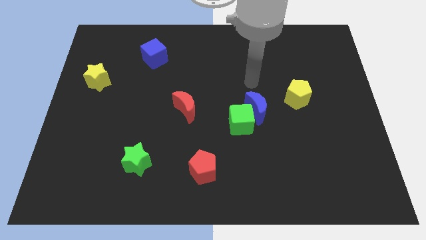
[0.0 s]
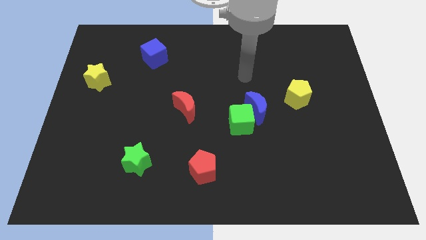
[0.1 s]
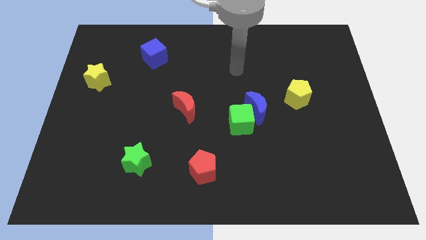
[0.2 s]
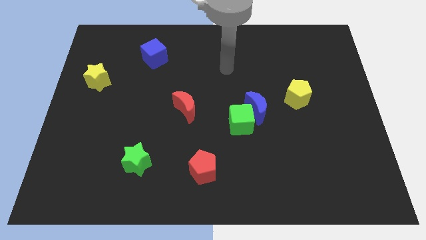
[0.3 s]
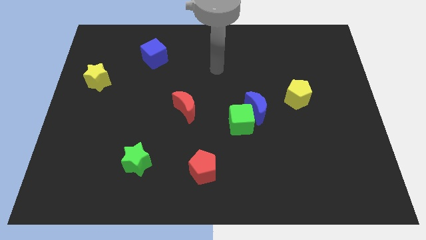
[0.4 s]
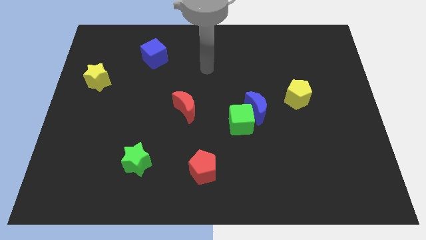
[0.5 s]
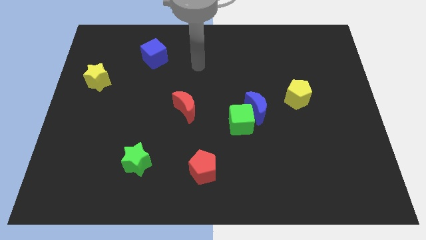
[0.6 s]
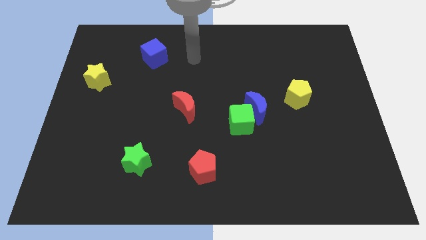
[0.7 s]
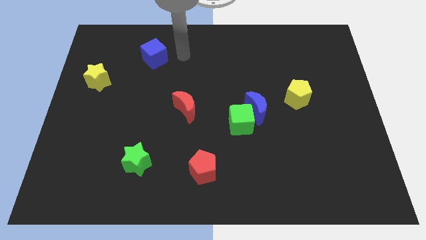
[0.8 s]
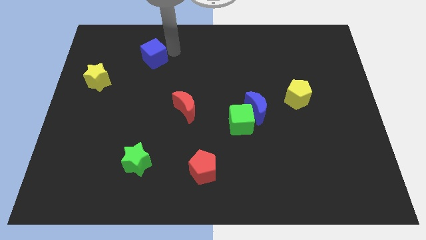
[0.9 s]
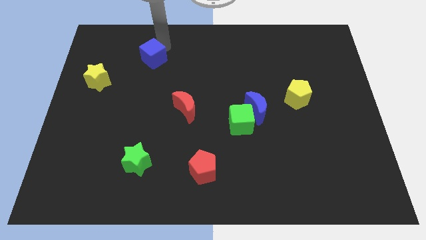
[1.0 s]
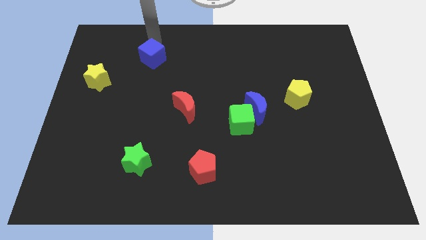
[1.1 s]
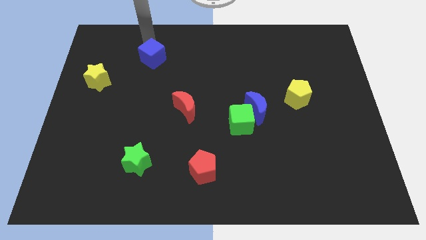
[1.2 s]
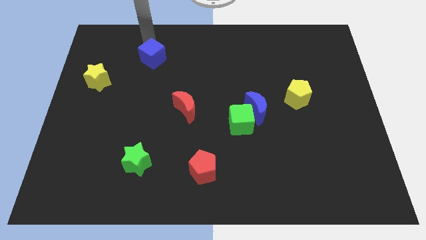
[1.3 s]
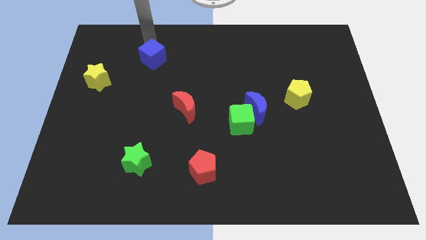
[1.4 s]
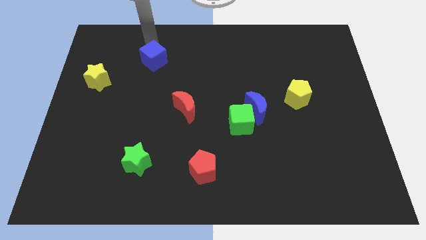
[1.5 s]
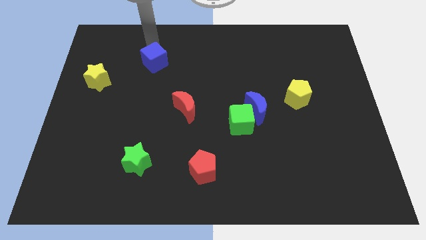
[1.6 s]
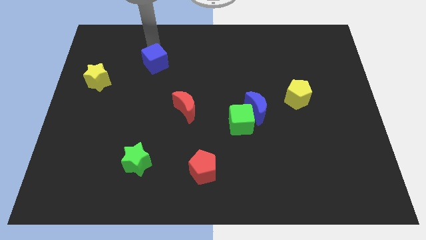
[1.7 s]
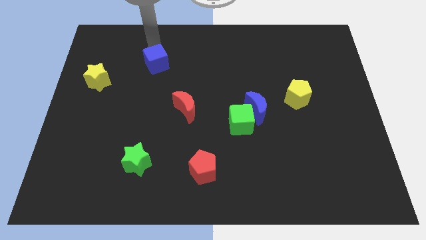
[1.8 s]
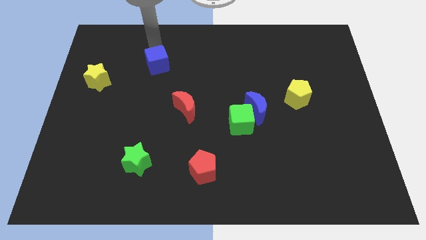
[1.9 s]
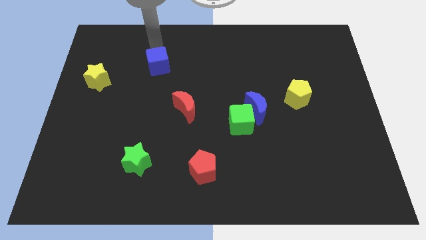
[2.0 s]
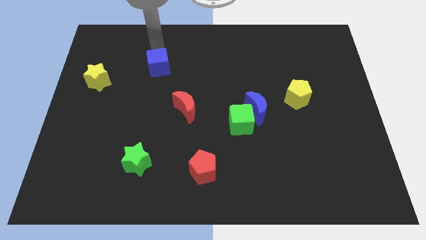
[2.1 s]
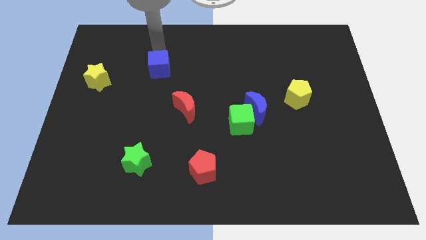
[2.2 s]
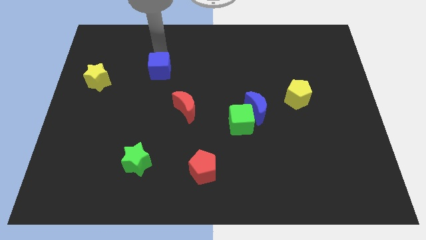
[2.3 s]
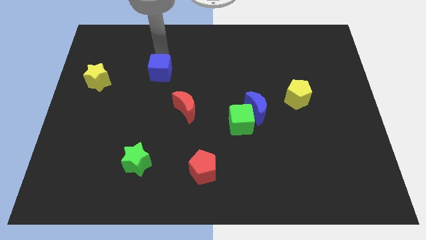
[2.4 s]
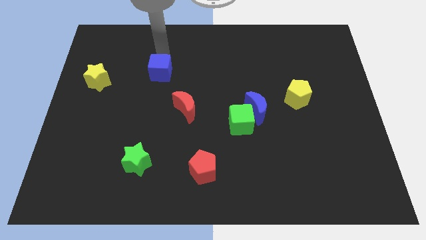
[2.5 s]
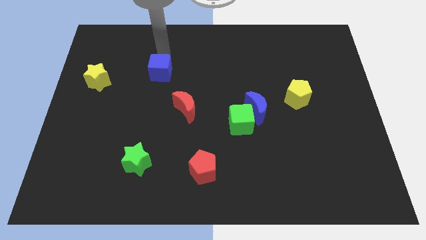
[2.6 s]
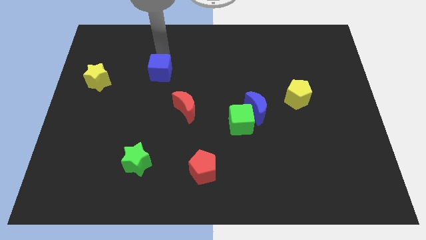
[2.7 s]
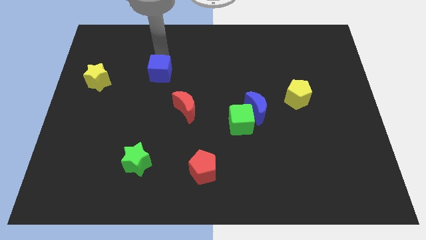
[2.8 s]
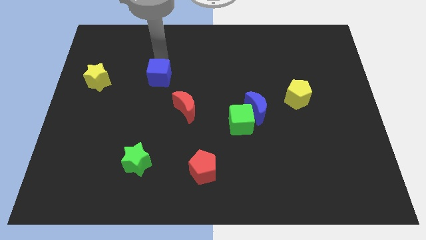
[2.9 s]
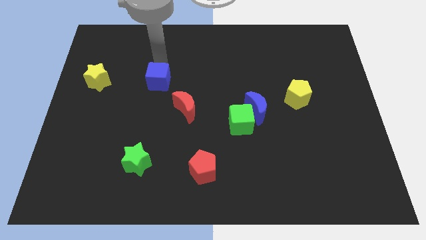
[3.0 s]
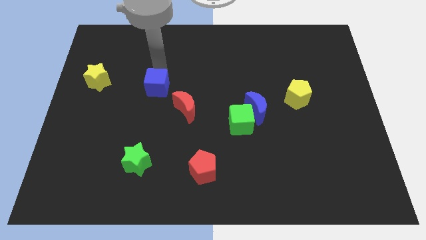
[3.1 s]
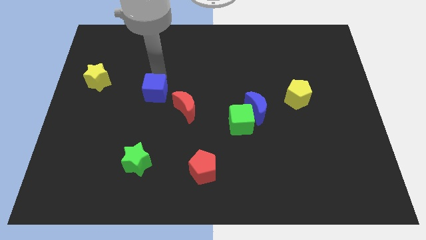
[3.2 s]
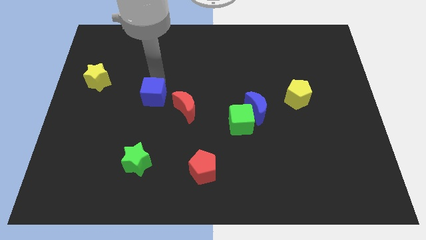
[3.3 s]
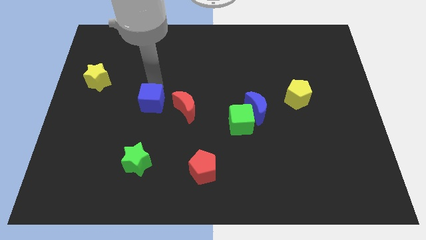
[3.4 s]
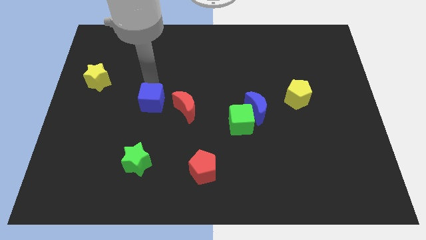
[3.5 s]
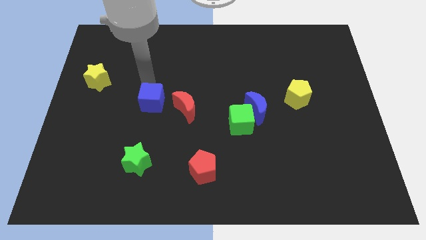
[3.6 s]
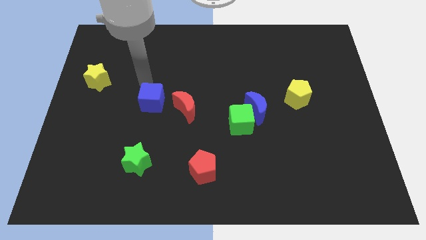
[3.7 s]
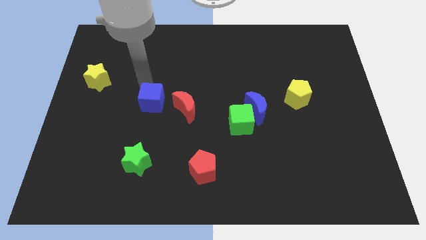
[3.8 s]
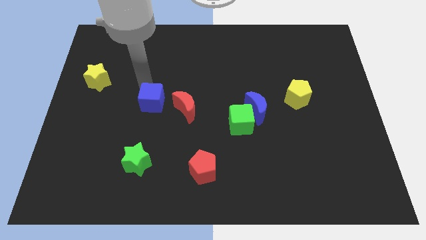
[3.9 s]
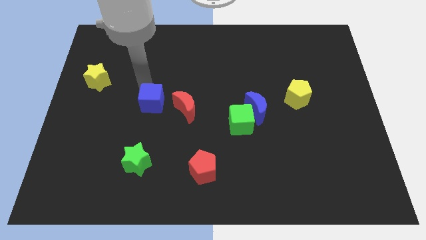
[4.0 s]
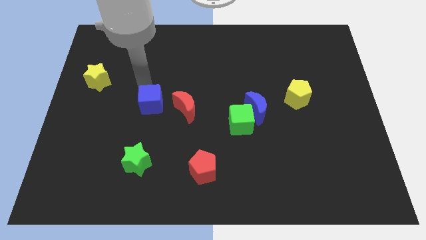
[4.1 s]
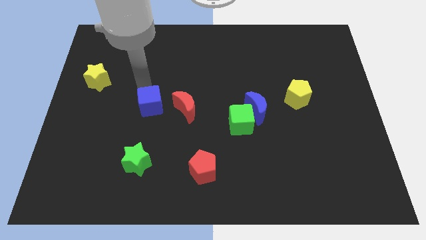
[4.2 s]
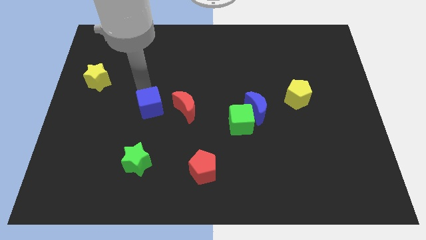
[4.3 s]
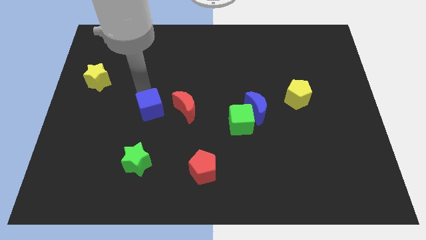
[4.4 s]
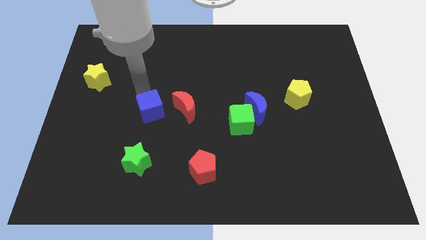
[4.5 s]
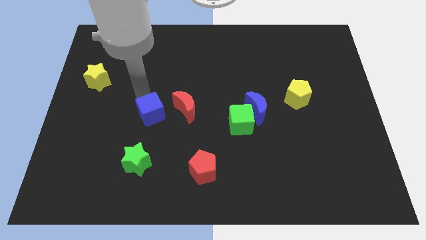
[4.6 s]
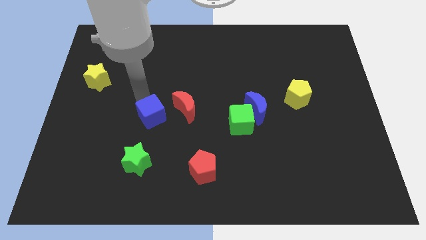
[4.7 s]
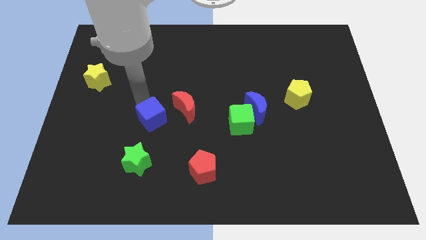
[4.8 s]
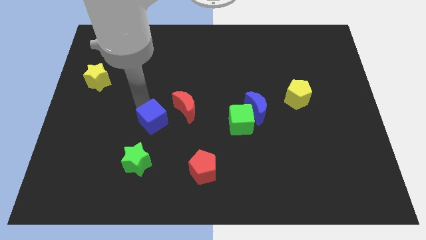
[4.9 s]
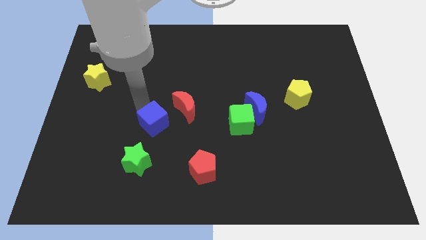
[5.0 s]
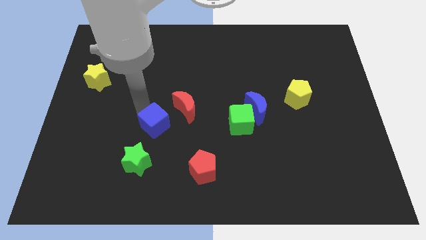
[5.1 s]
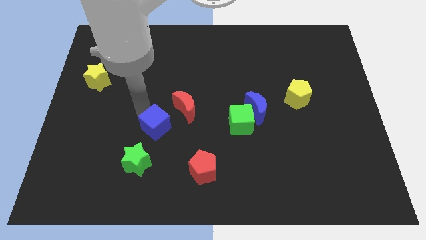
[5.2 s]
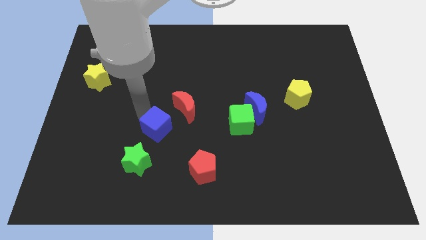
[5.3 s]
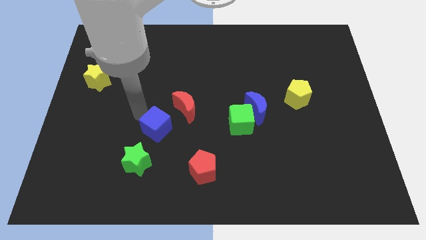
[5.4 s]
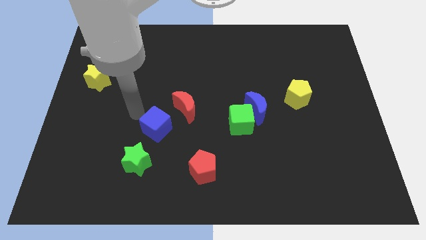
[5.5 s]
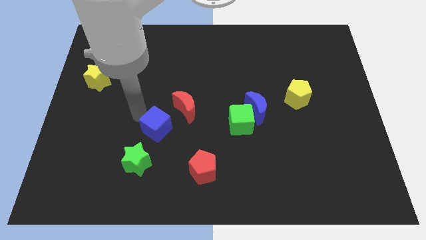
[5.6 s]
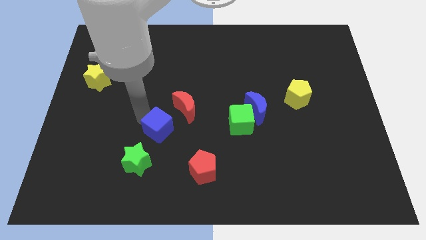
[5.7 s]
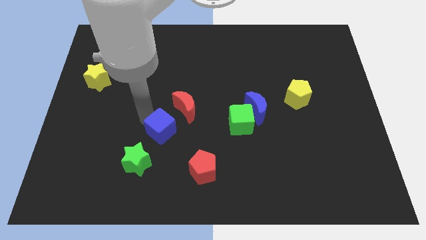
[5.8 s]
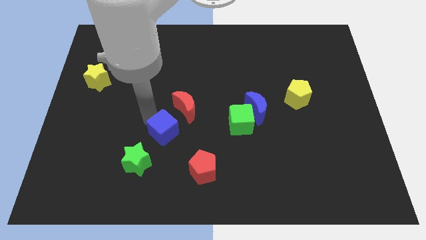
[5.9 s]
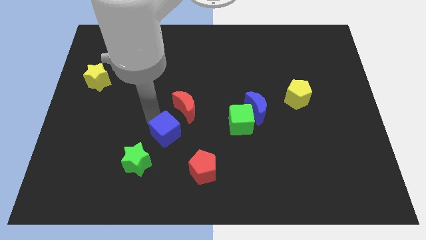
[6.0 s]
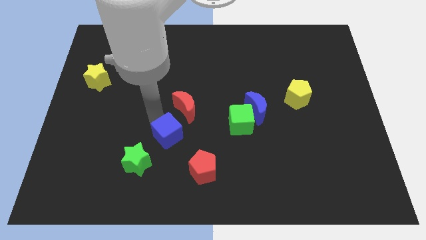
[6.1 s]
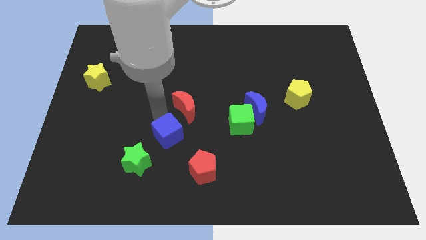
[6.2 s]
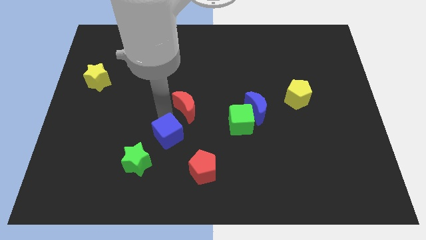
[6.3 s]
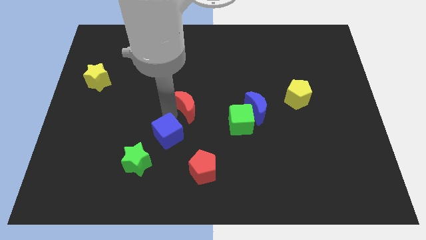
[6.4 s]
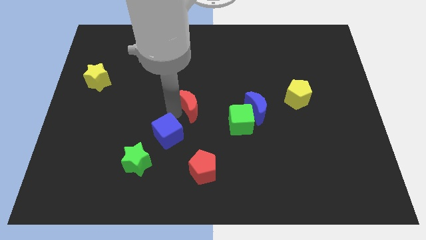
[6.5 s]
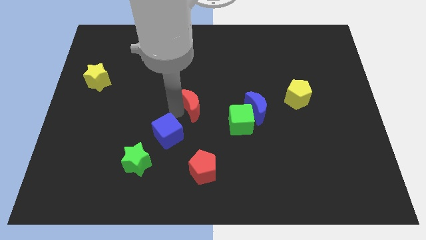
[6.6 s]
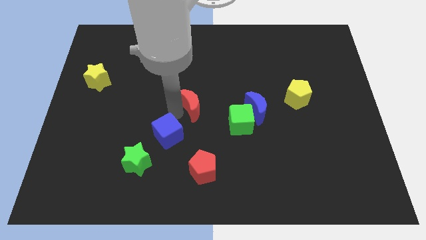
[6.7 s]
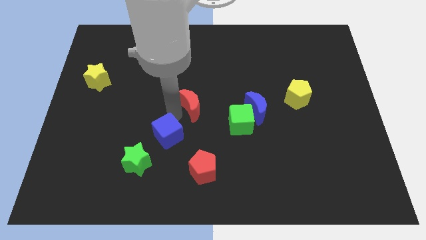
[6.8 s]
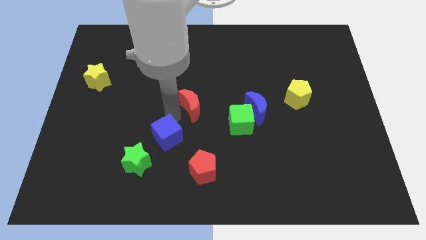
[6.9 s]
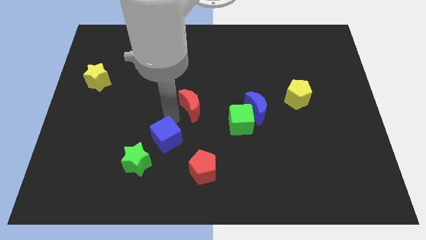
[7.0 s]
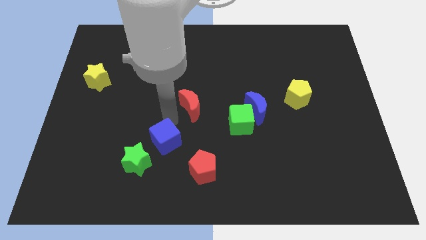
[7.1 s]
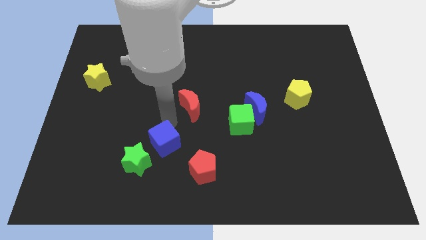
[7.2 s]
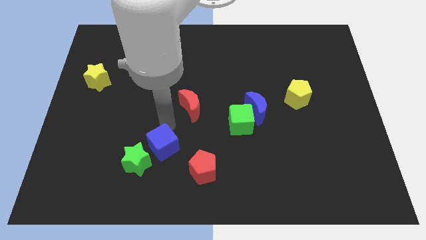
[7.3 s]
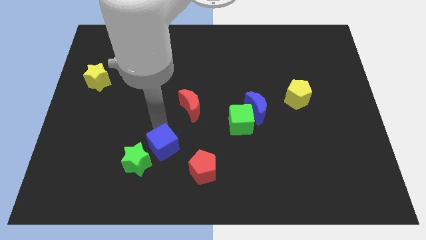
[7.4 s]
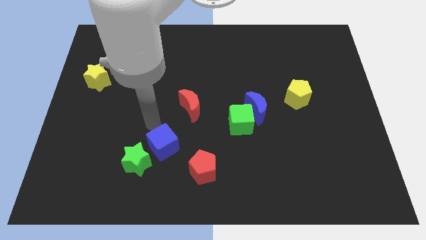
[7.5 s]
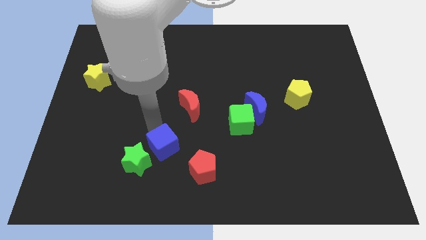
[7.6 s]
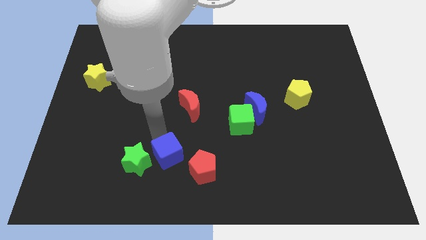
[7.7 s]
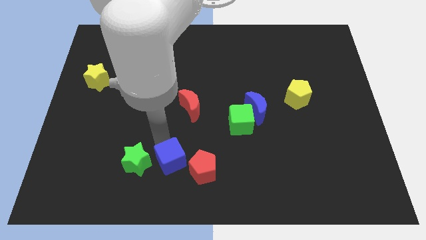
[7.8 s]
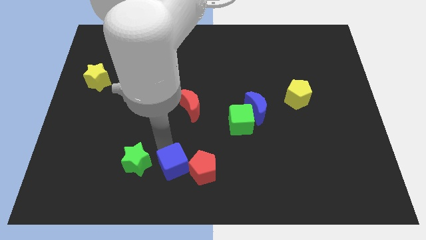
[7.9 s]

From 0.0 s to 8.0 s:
slide the blue cube to the bottom
